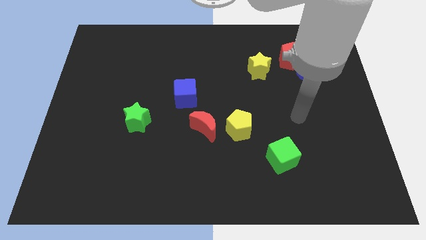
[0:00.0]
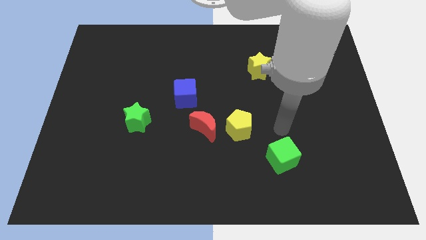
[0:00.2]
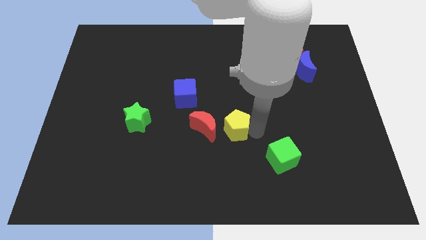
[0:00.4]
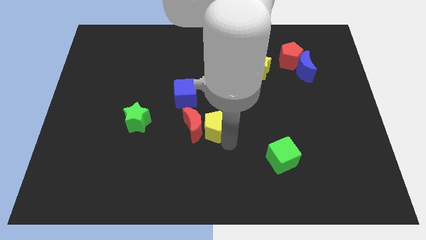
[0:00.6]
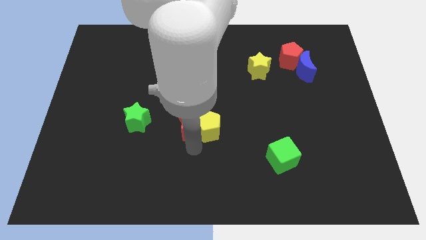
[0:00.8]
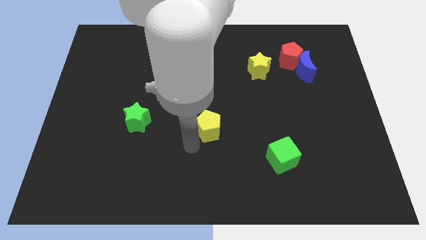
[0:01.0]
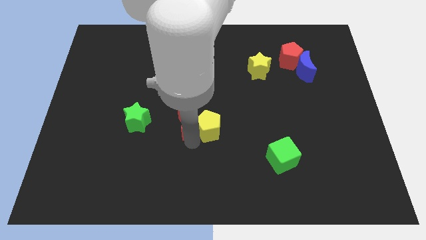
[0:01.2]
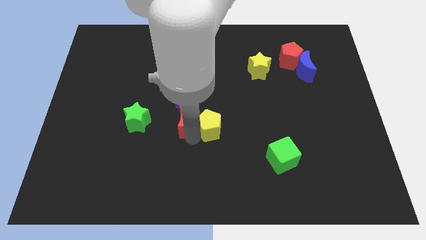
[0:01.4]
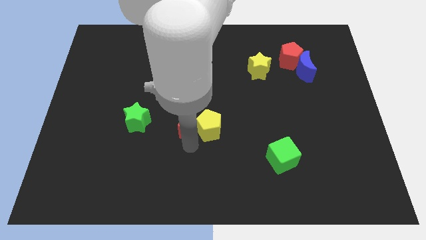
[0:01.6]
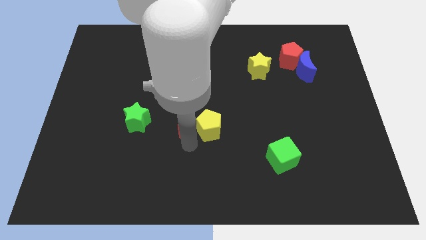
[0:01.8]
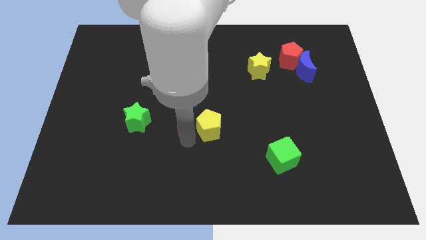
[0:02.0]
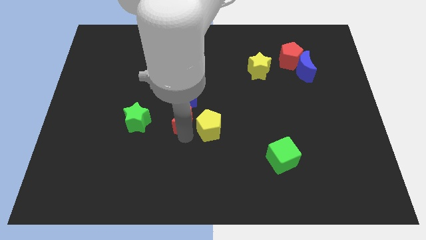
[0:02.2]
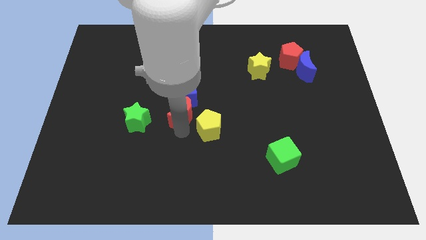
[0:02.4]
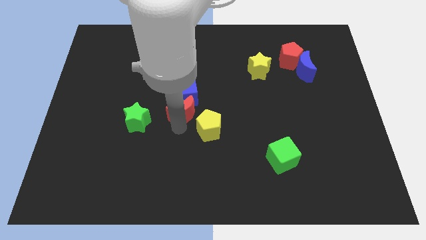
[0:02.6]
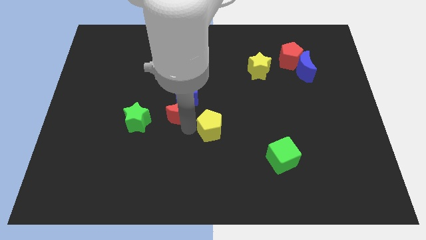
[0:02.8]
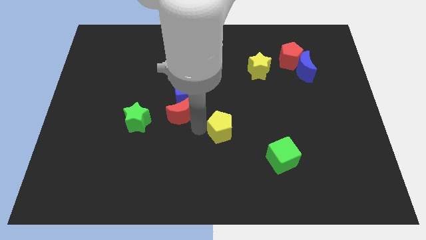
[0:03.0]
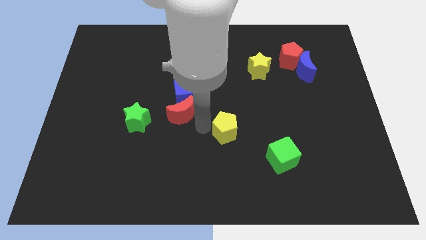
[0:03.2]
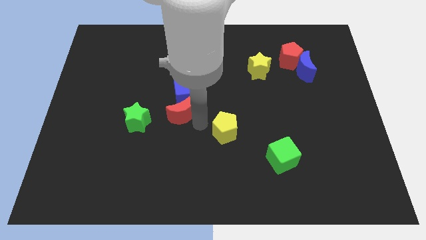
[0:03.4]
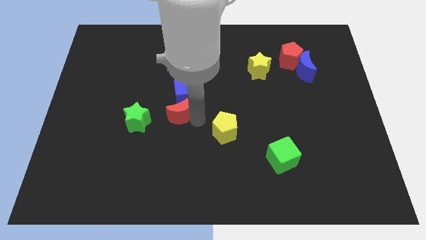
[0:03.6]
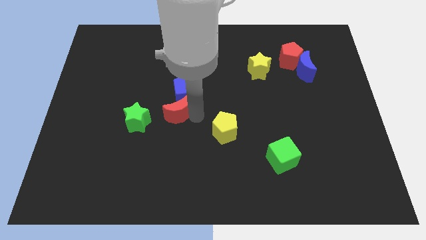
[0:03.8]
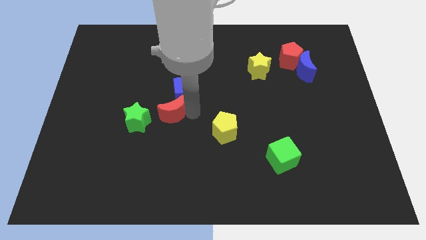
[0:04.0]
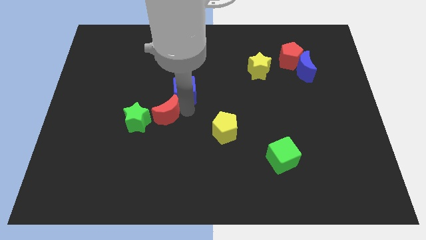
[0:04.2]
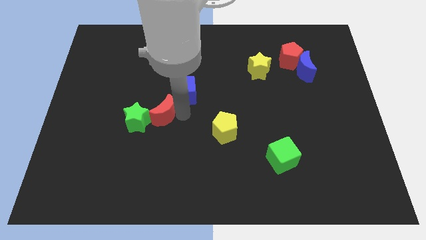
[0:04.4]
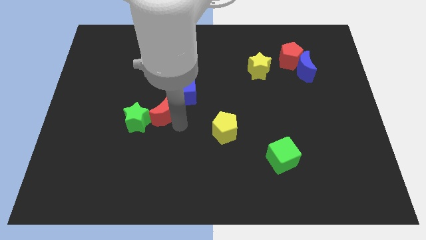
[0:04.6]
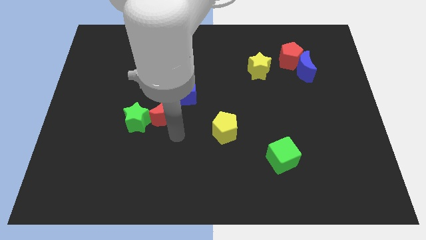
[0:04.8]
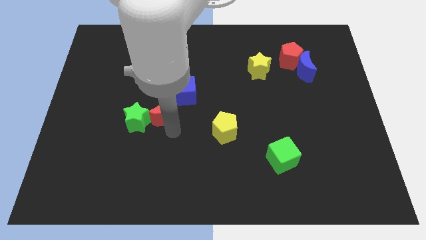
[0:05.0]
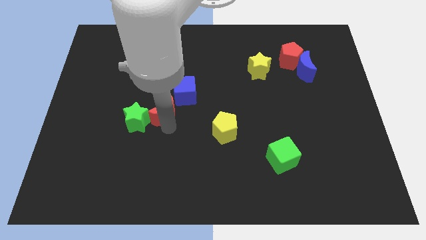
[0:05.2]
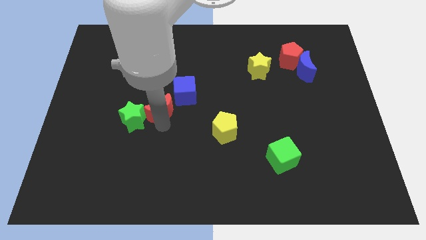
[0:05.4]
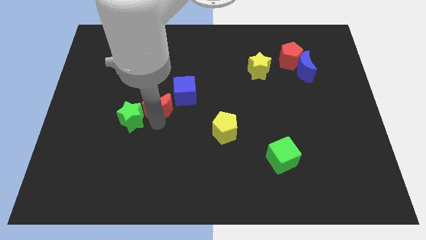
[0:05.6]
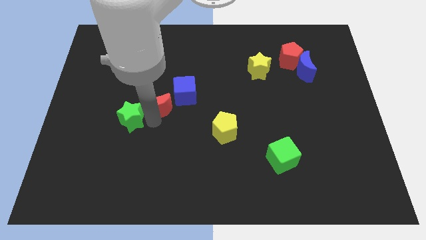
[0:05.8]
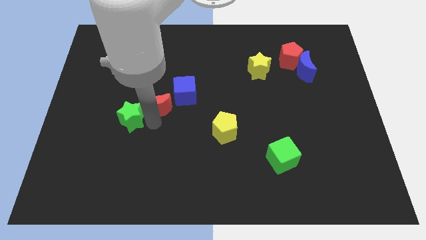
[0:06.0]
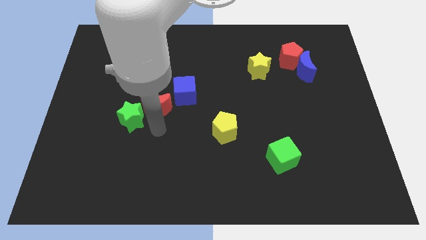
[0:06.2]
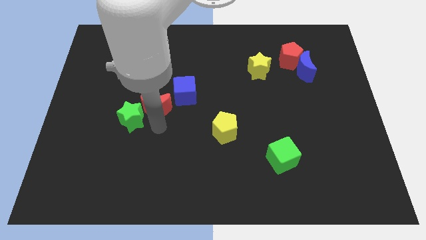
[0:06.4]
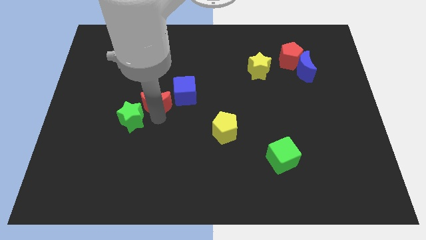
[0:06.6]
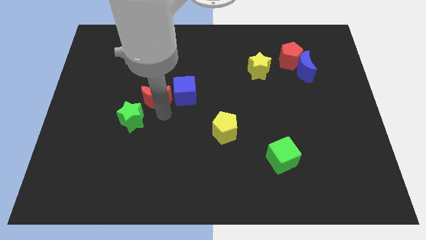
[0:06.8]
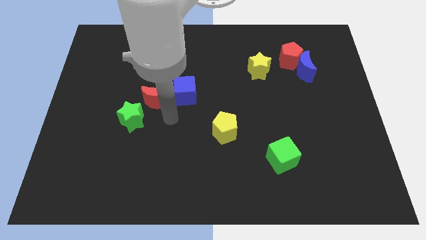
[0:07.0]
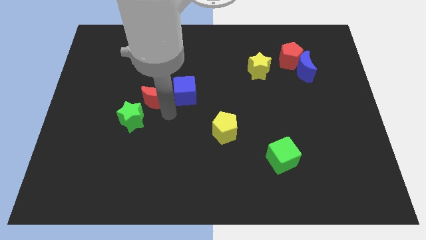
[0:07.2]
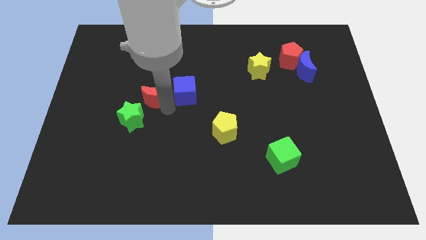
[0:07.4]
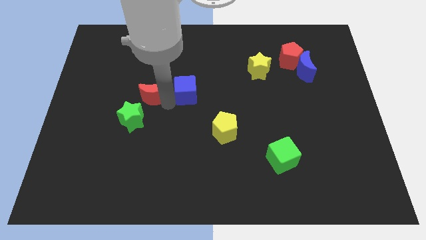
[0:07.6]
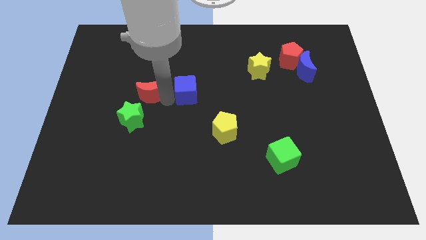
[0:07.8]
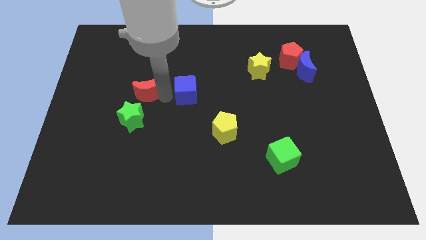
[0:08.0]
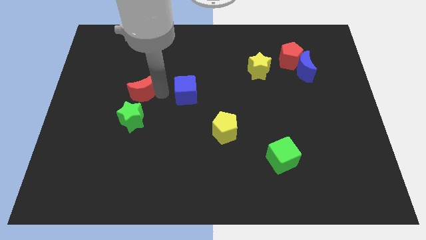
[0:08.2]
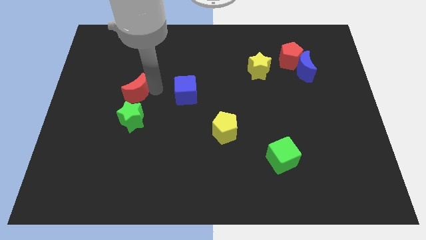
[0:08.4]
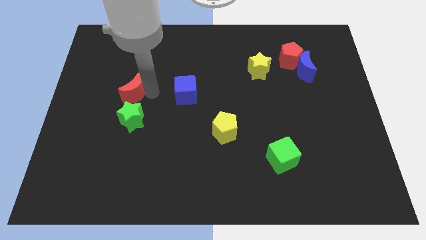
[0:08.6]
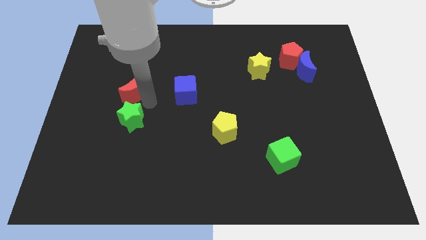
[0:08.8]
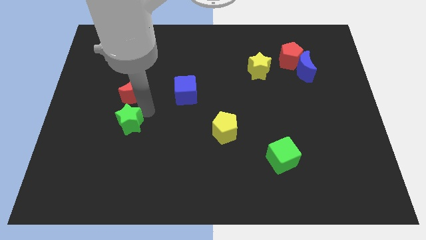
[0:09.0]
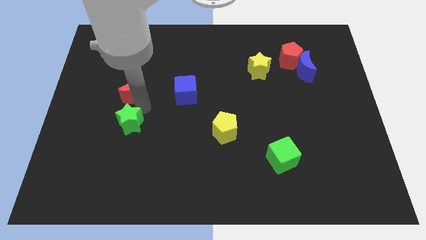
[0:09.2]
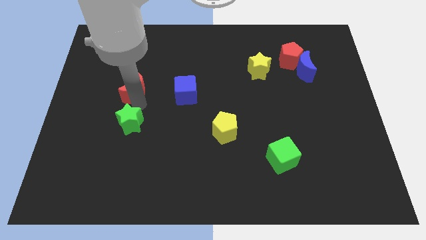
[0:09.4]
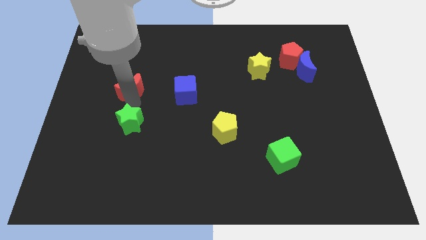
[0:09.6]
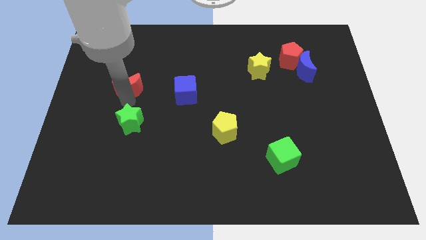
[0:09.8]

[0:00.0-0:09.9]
slide the red moon upwards and then left

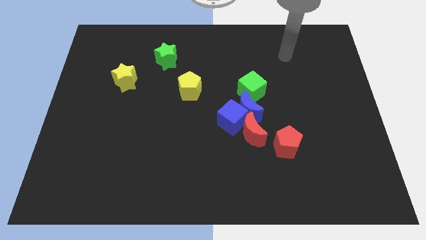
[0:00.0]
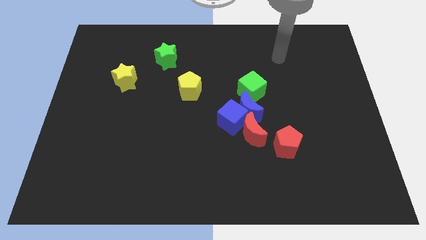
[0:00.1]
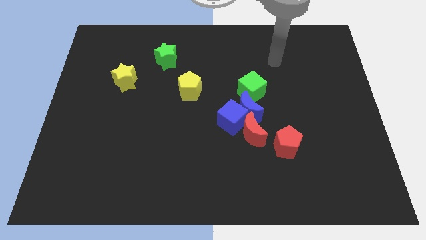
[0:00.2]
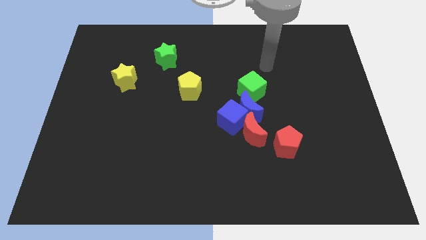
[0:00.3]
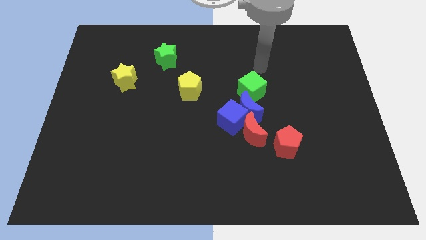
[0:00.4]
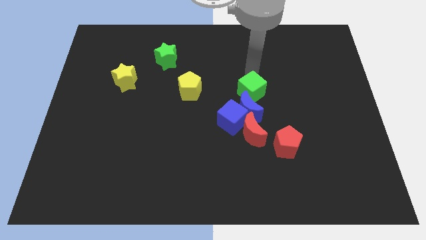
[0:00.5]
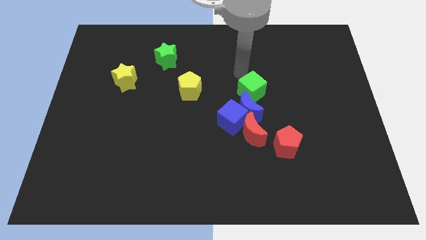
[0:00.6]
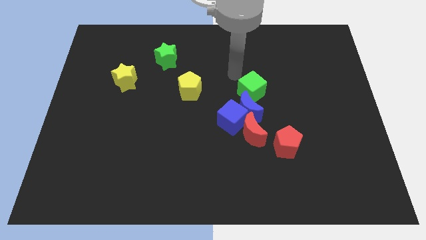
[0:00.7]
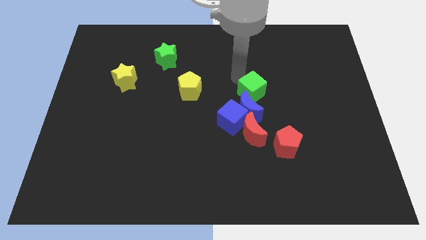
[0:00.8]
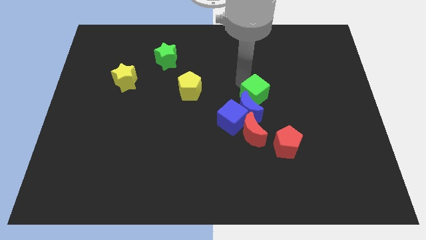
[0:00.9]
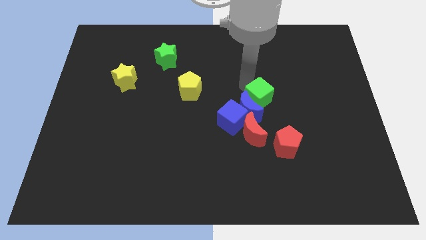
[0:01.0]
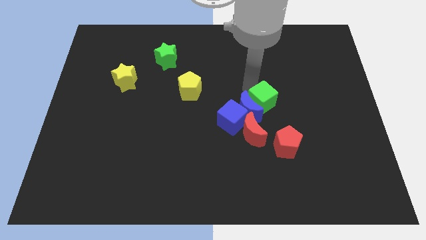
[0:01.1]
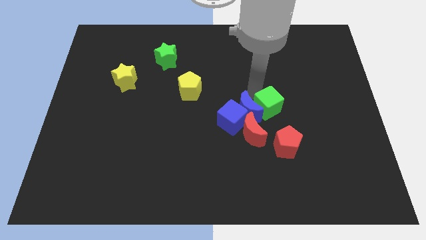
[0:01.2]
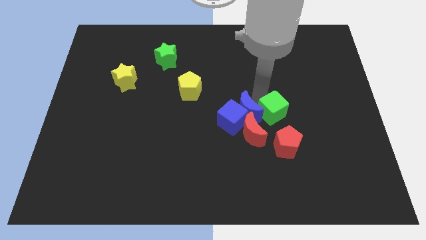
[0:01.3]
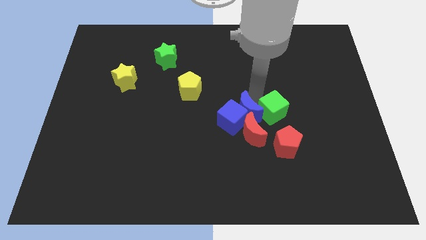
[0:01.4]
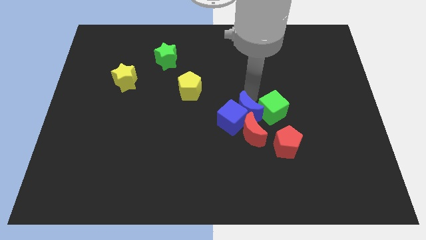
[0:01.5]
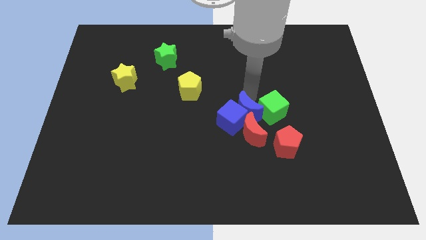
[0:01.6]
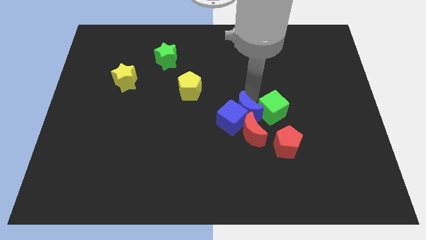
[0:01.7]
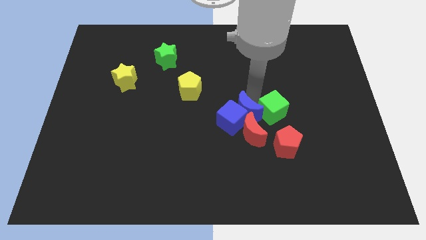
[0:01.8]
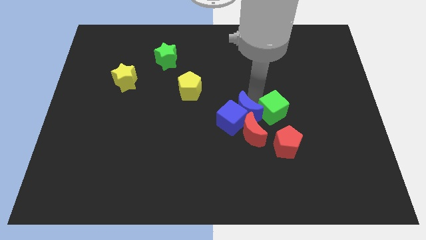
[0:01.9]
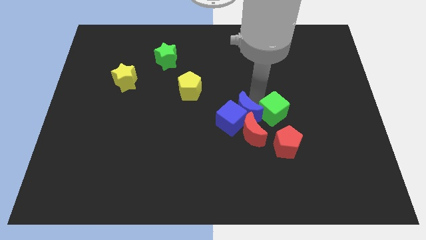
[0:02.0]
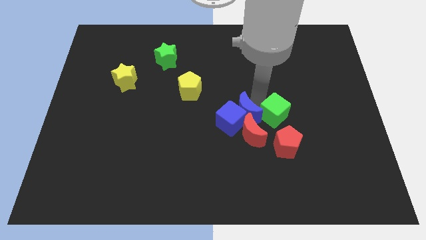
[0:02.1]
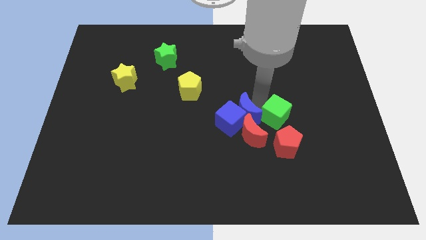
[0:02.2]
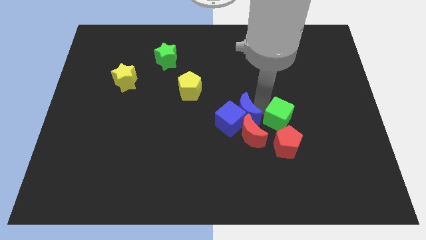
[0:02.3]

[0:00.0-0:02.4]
slightly slide the green cube down

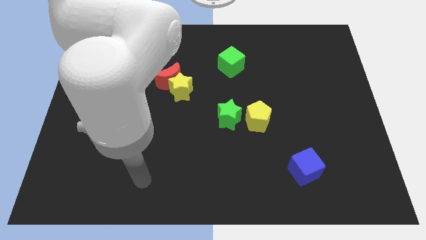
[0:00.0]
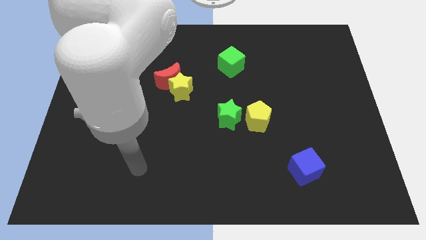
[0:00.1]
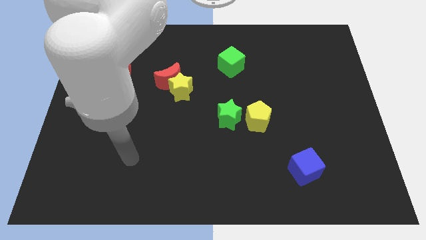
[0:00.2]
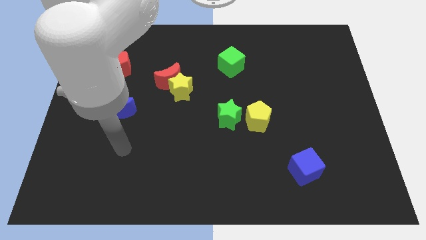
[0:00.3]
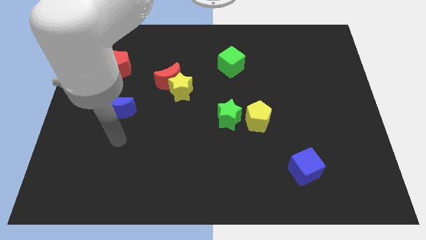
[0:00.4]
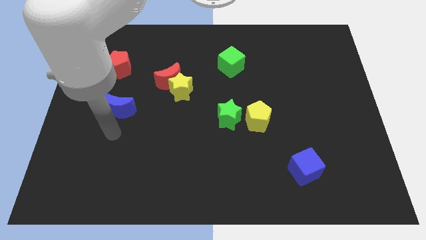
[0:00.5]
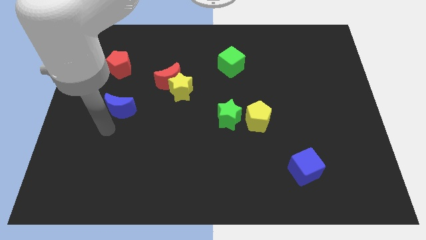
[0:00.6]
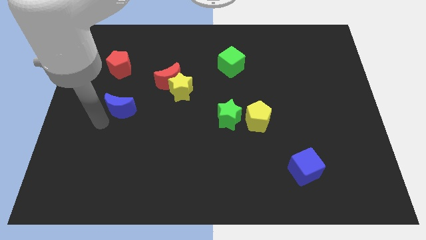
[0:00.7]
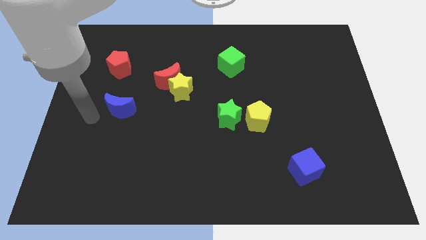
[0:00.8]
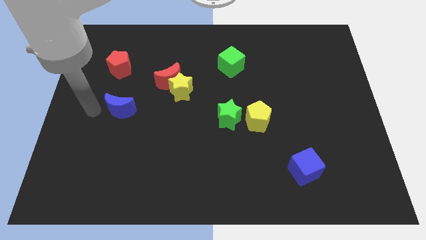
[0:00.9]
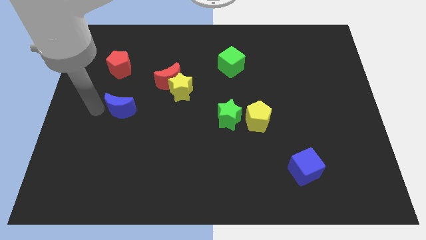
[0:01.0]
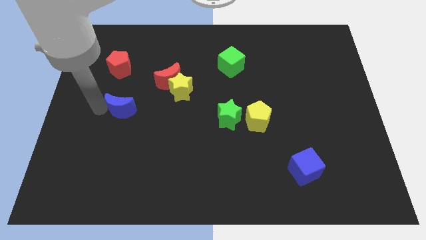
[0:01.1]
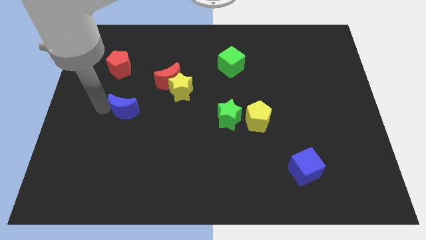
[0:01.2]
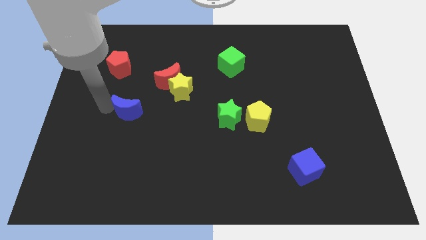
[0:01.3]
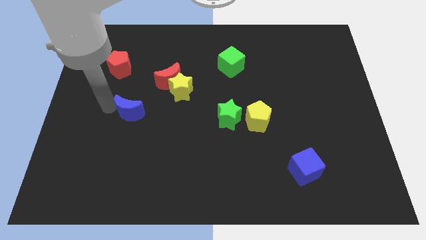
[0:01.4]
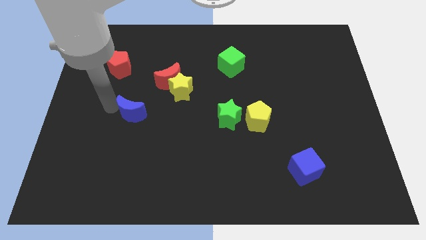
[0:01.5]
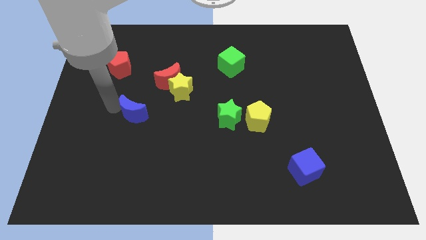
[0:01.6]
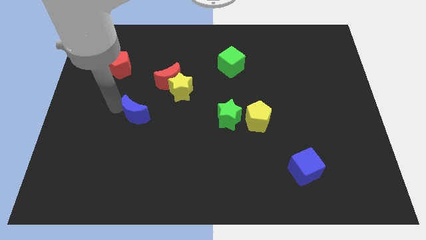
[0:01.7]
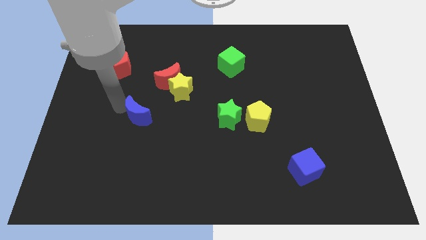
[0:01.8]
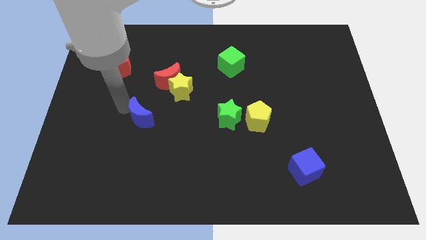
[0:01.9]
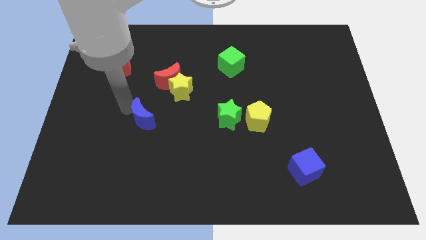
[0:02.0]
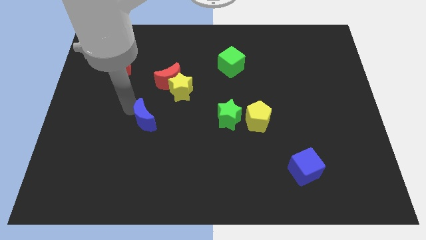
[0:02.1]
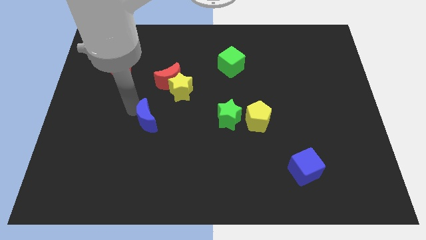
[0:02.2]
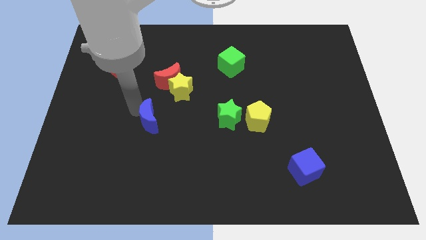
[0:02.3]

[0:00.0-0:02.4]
slightly push the blue moon right
